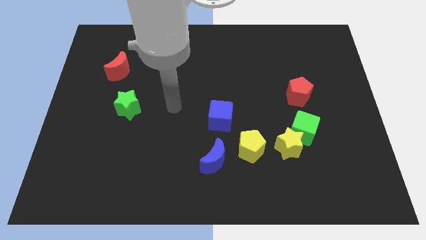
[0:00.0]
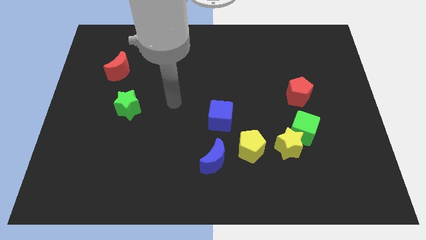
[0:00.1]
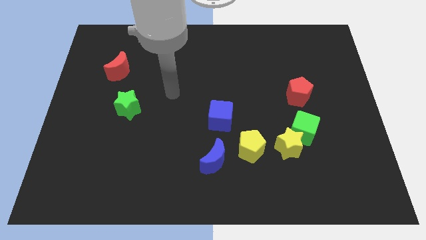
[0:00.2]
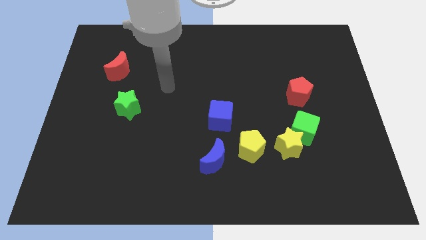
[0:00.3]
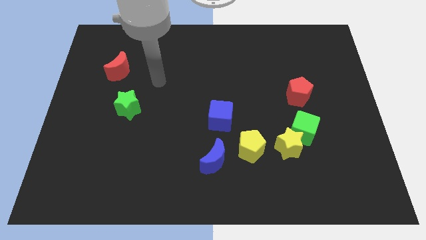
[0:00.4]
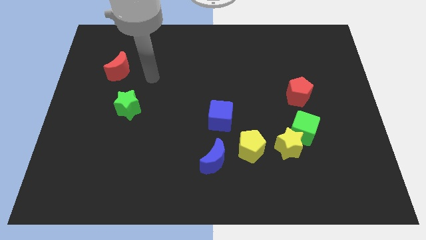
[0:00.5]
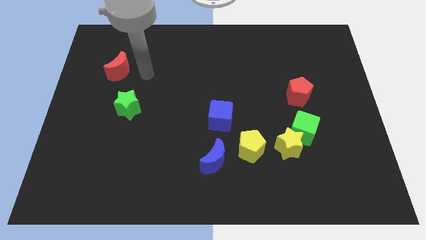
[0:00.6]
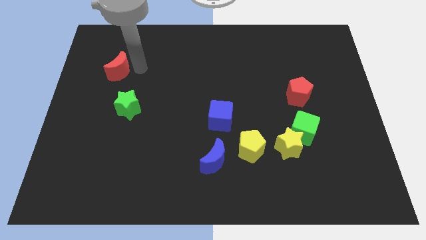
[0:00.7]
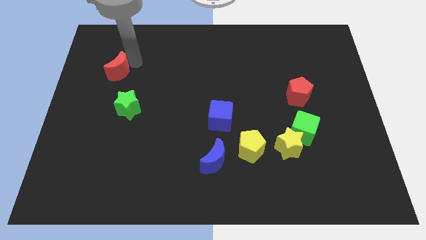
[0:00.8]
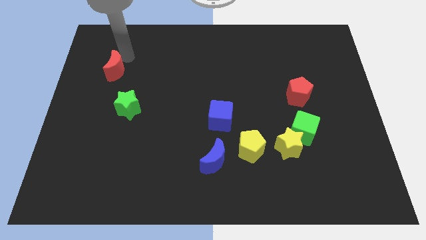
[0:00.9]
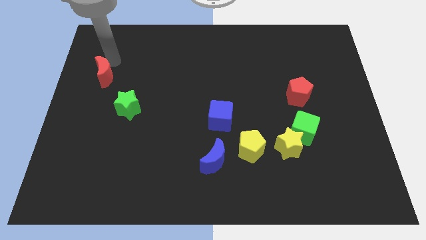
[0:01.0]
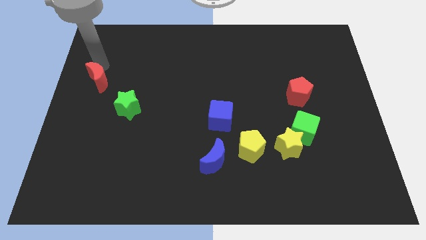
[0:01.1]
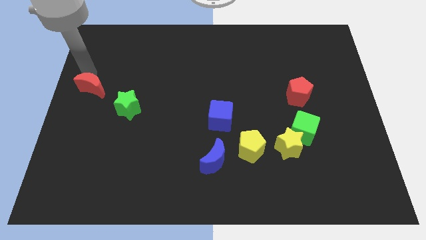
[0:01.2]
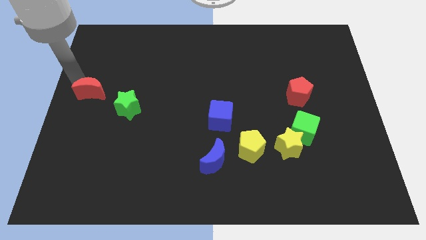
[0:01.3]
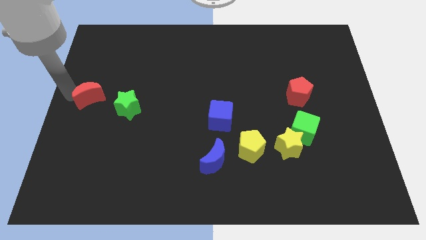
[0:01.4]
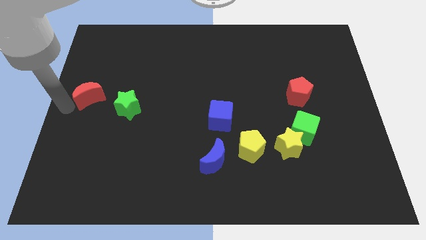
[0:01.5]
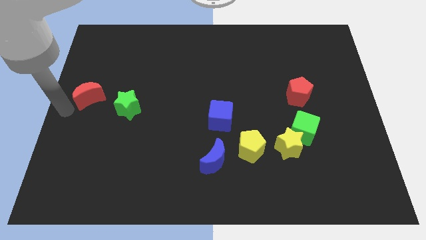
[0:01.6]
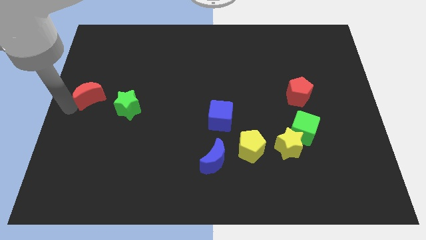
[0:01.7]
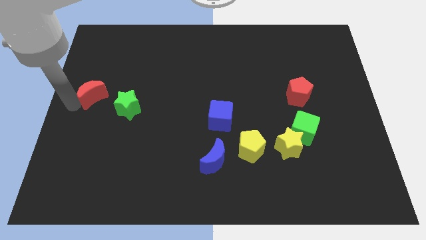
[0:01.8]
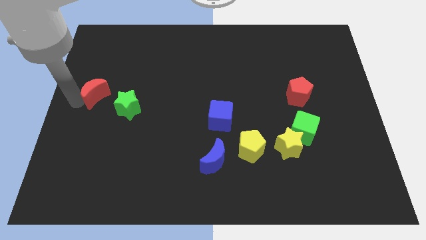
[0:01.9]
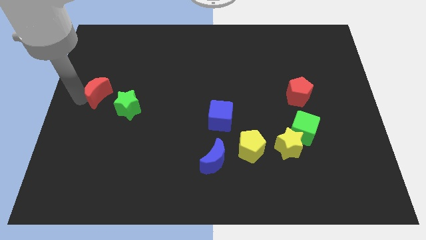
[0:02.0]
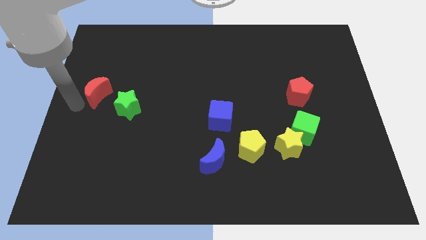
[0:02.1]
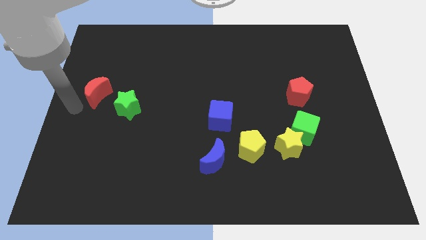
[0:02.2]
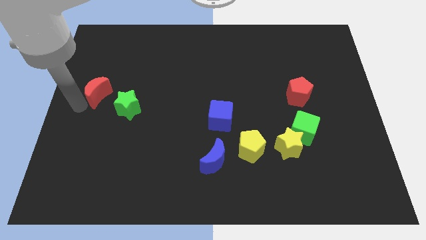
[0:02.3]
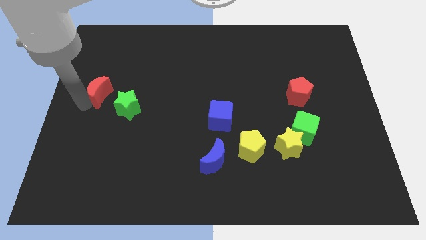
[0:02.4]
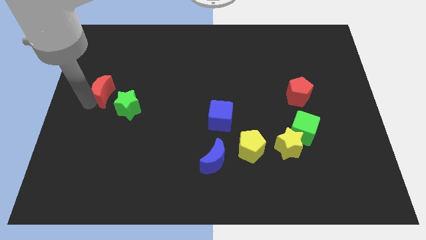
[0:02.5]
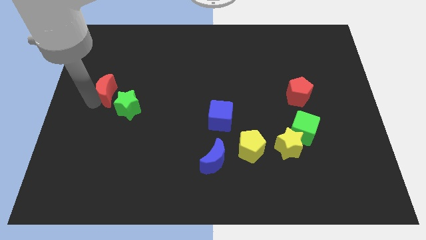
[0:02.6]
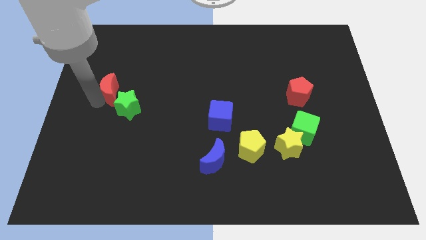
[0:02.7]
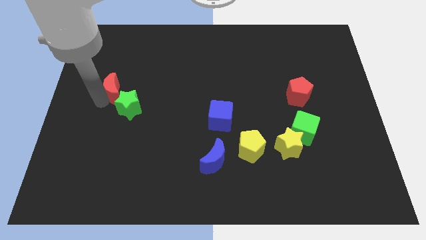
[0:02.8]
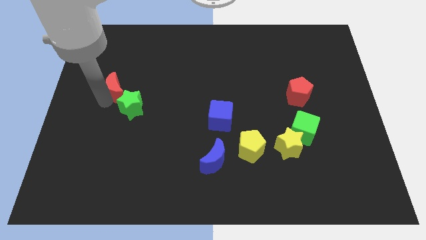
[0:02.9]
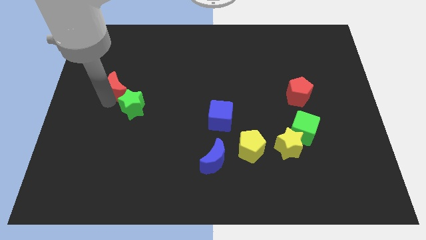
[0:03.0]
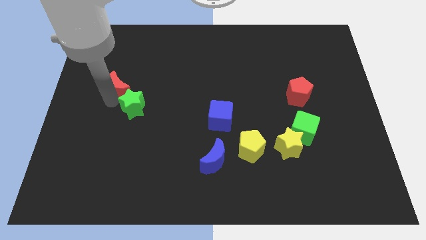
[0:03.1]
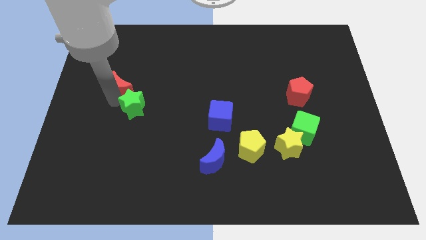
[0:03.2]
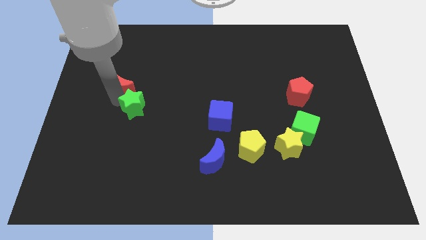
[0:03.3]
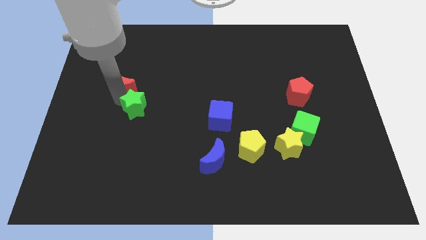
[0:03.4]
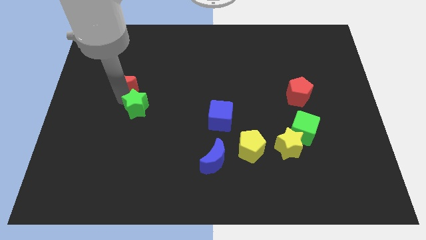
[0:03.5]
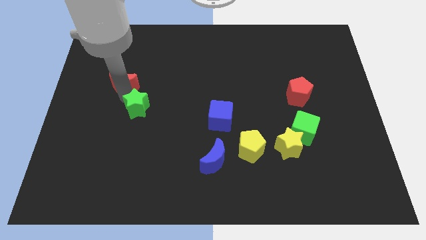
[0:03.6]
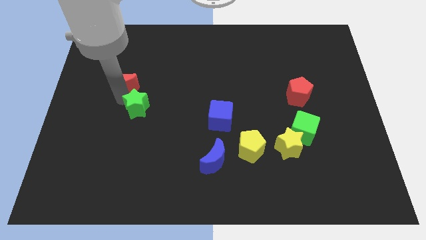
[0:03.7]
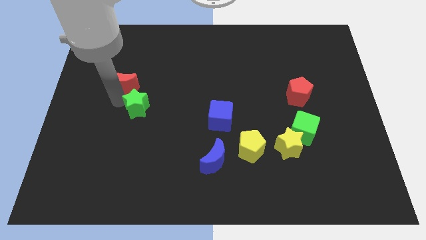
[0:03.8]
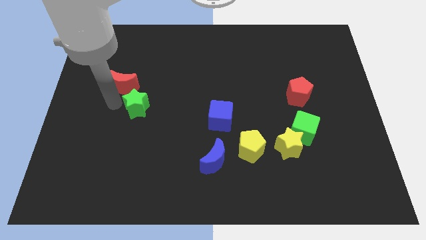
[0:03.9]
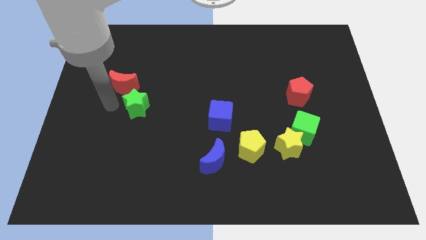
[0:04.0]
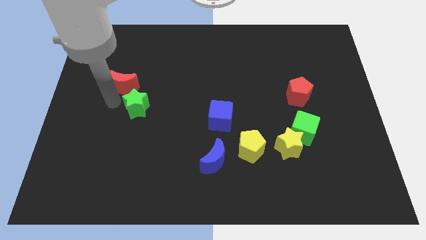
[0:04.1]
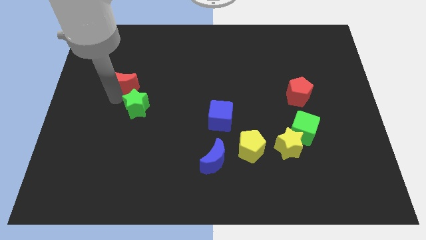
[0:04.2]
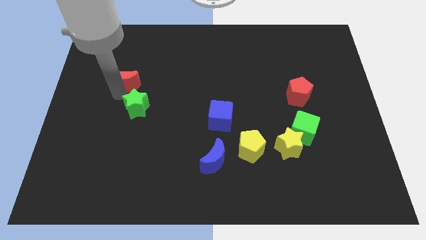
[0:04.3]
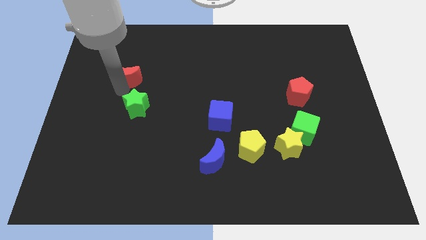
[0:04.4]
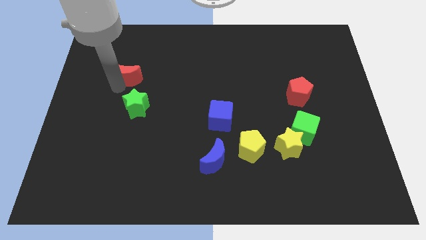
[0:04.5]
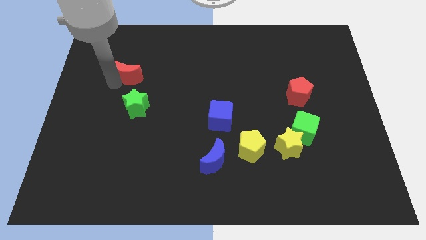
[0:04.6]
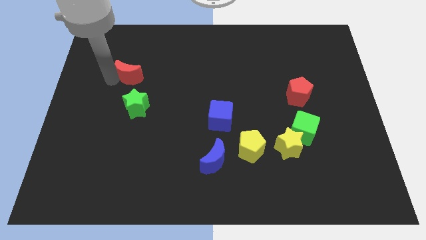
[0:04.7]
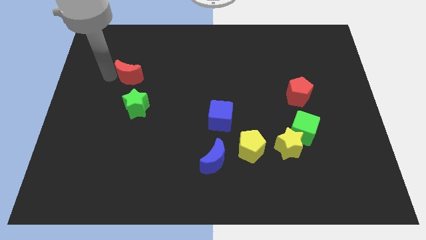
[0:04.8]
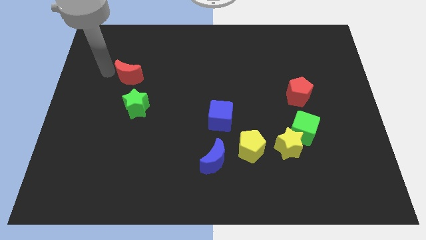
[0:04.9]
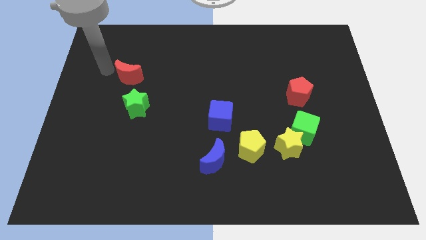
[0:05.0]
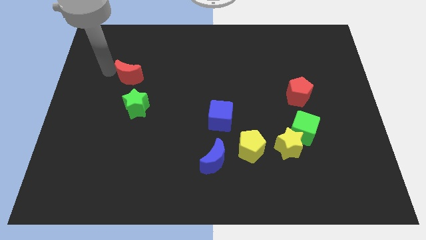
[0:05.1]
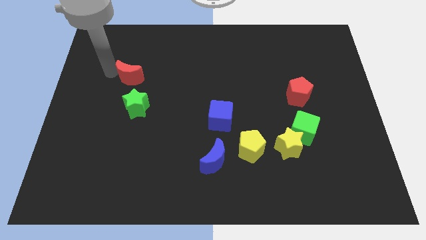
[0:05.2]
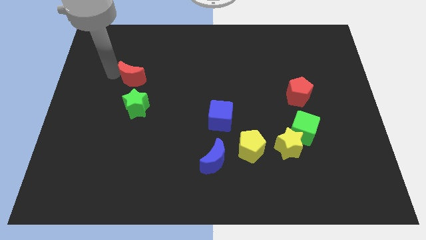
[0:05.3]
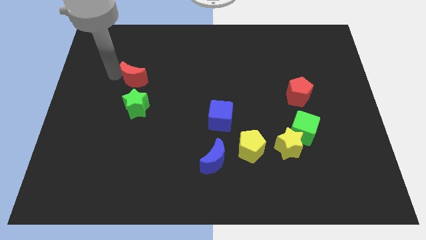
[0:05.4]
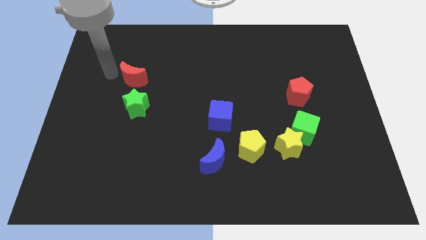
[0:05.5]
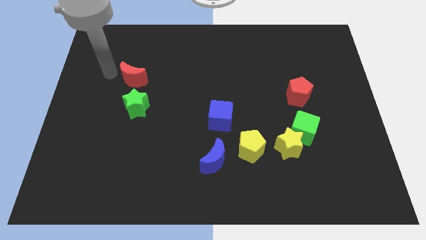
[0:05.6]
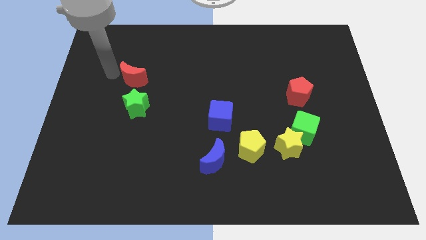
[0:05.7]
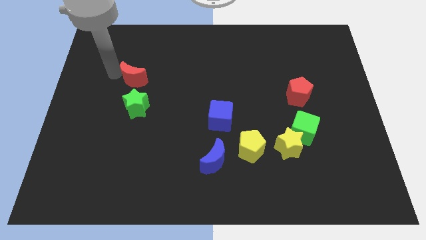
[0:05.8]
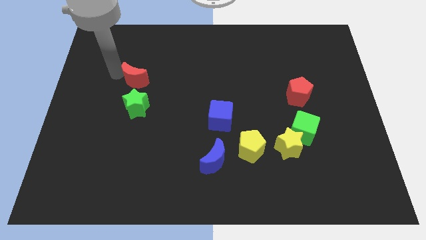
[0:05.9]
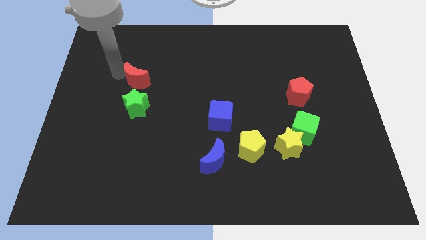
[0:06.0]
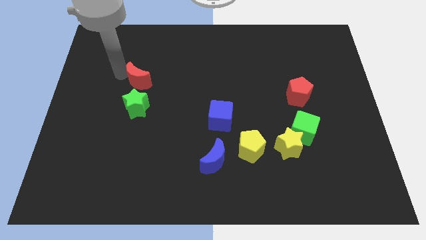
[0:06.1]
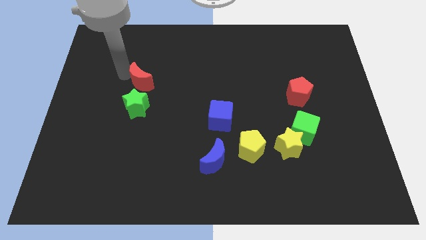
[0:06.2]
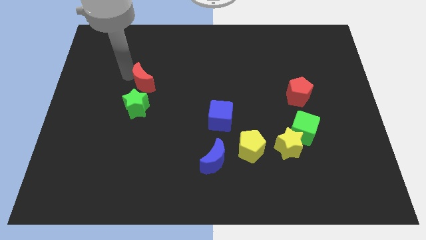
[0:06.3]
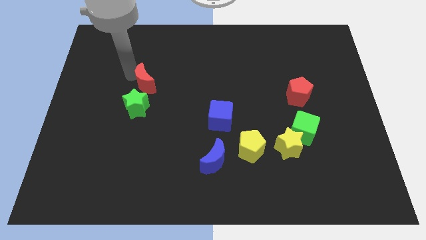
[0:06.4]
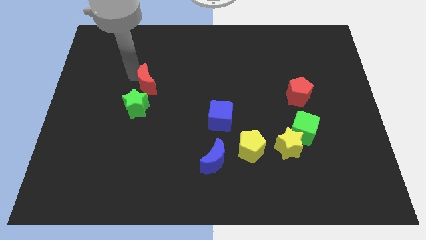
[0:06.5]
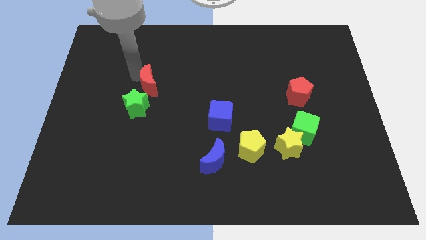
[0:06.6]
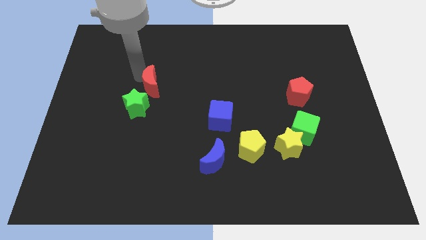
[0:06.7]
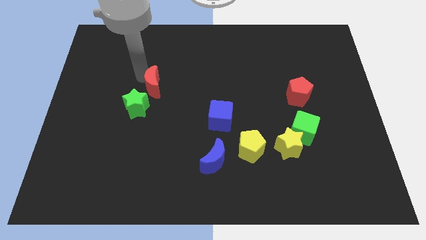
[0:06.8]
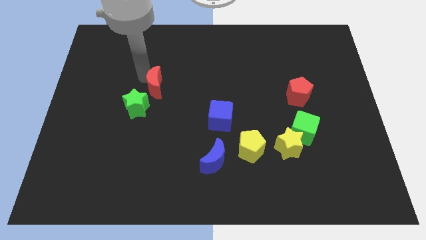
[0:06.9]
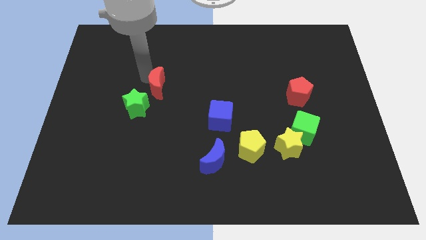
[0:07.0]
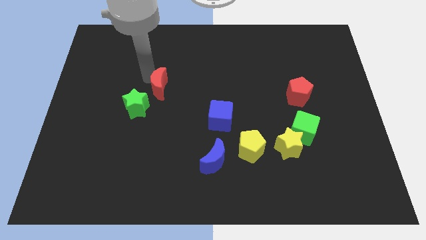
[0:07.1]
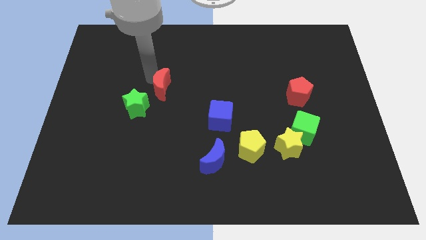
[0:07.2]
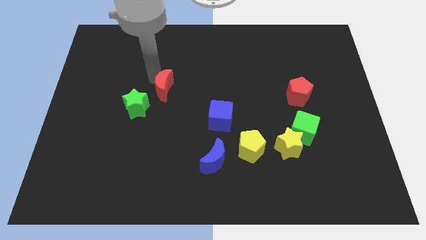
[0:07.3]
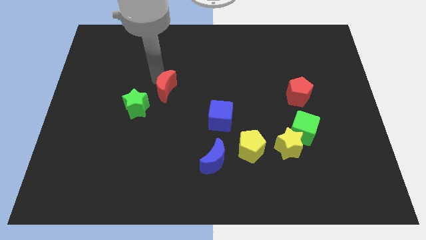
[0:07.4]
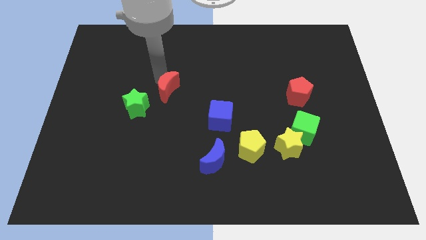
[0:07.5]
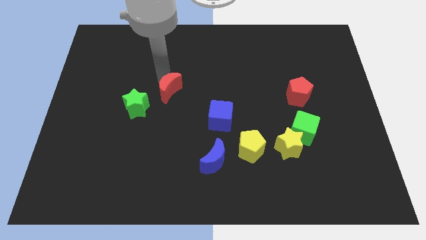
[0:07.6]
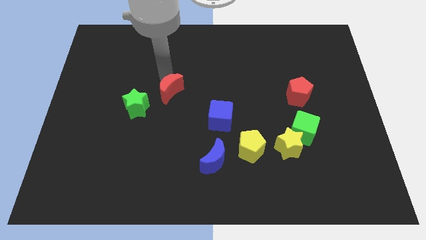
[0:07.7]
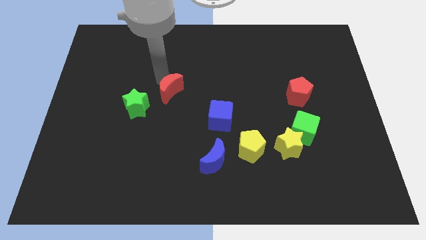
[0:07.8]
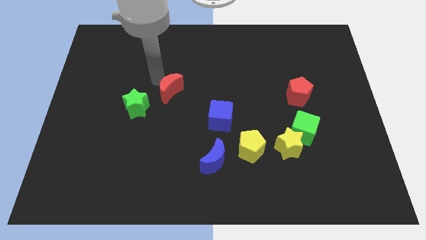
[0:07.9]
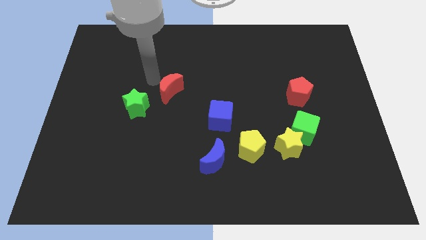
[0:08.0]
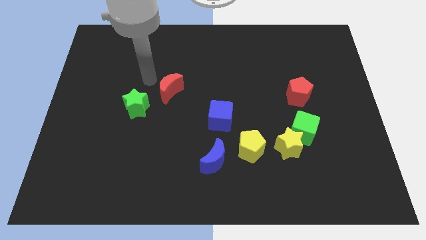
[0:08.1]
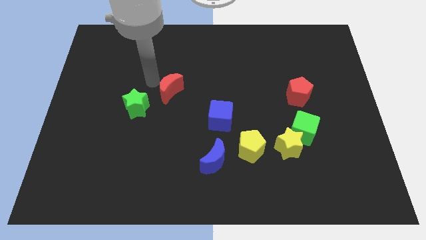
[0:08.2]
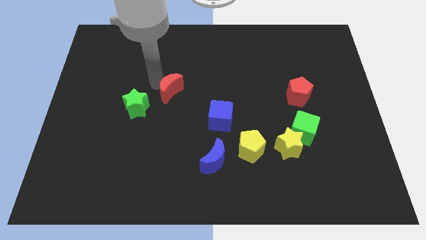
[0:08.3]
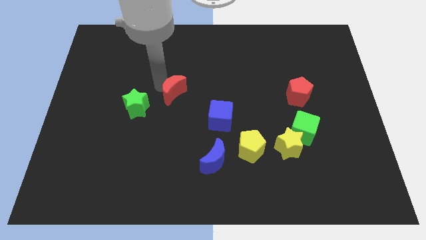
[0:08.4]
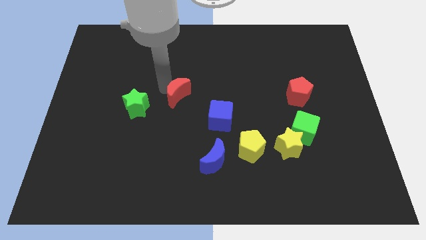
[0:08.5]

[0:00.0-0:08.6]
slide the red moon to the top left side of the blue cube
